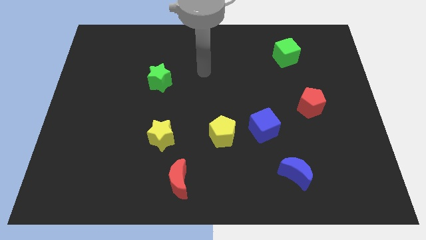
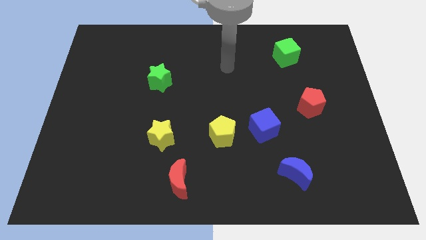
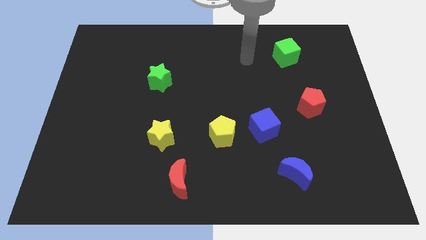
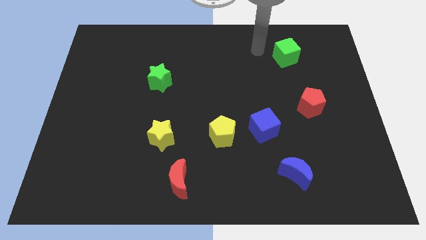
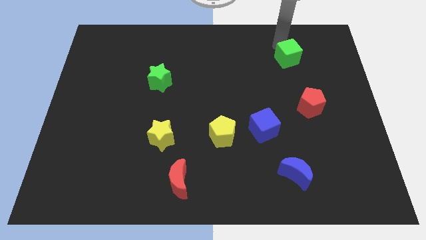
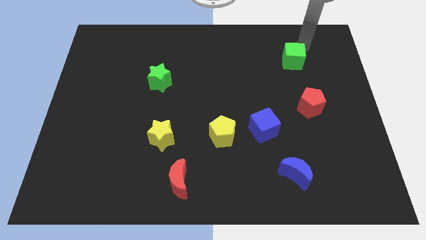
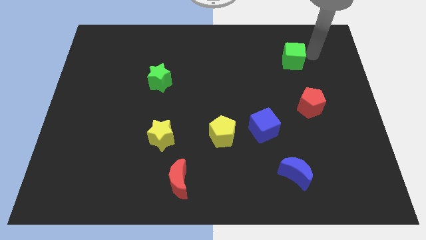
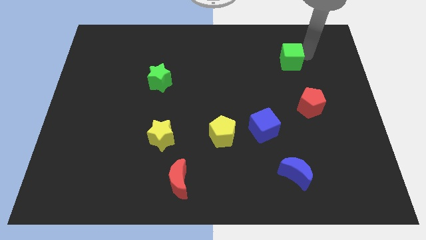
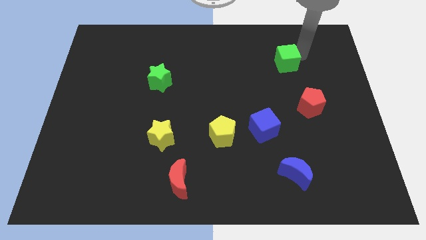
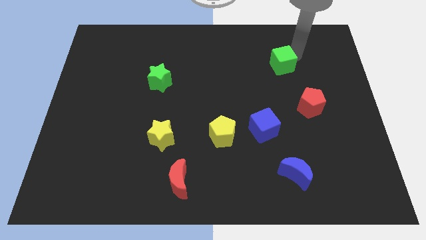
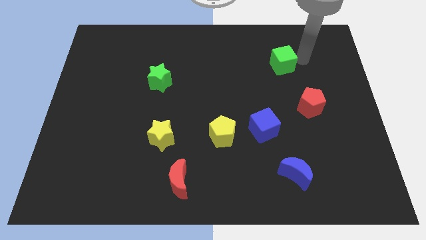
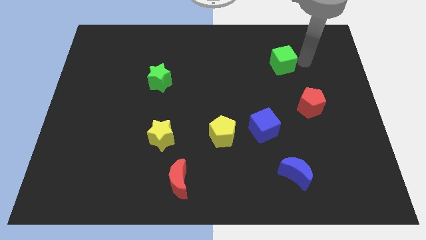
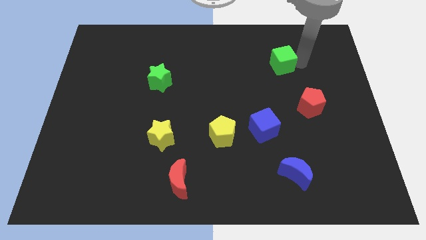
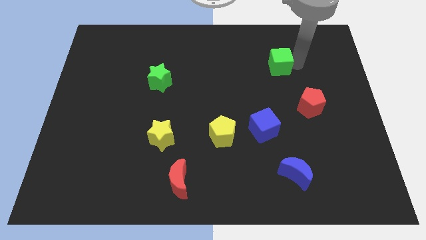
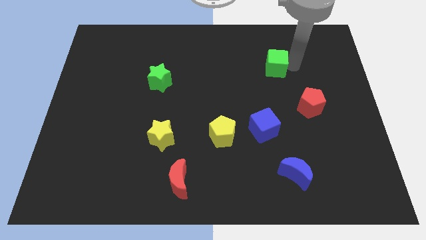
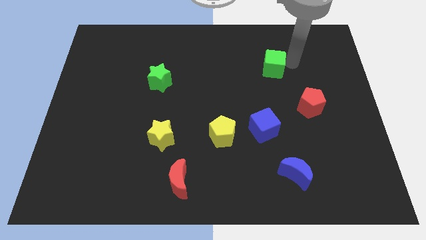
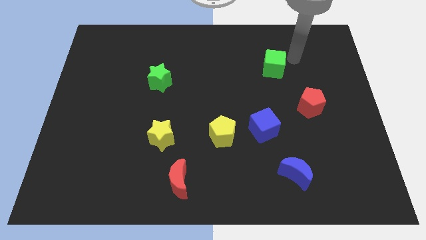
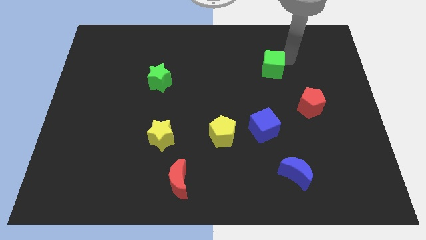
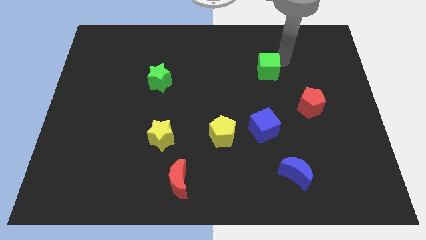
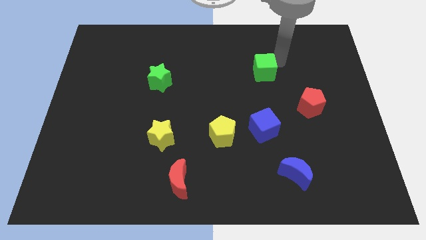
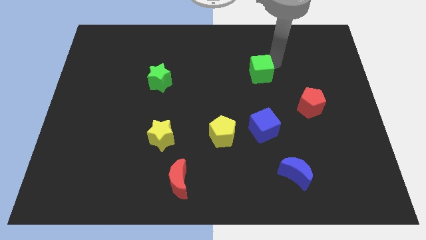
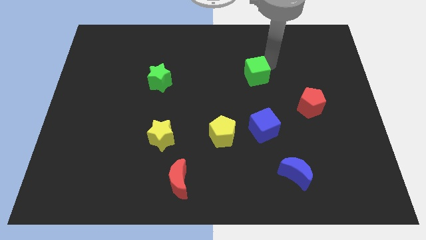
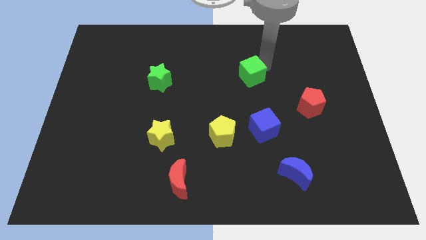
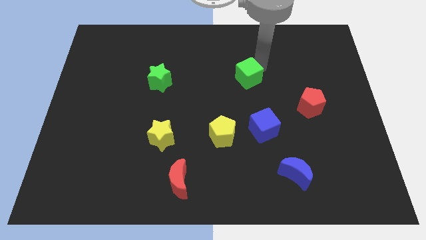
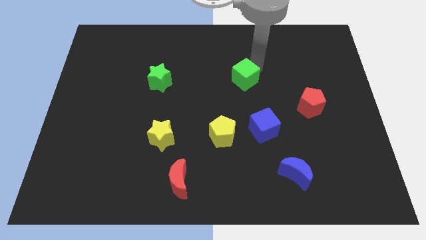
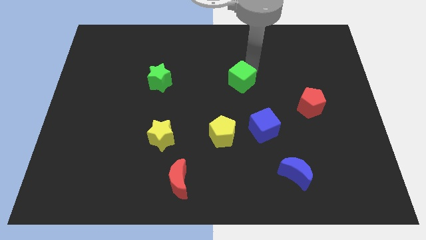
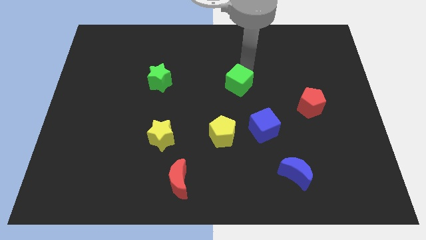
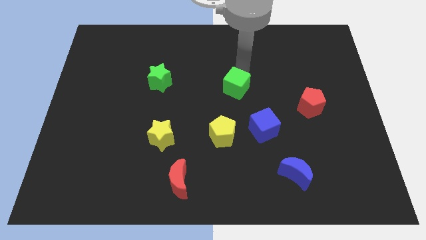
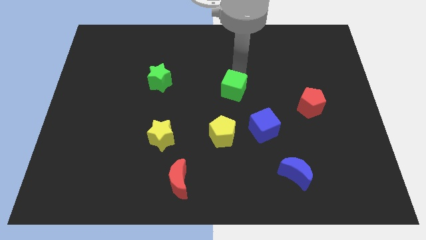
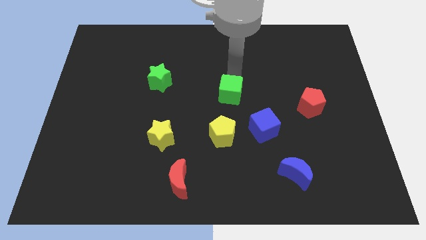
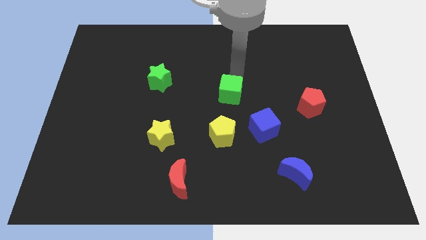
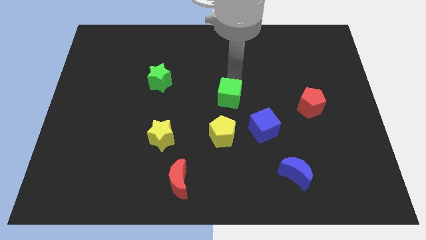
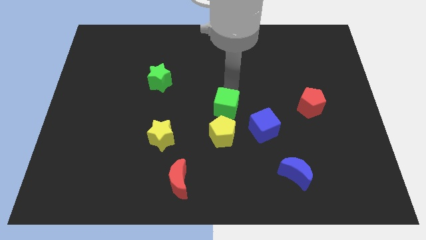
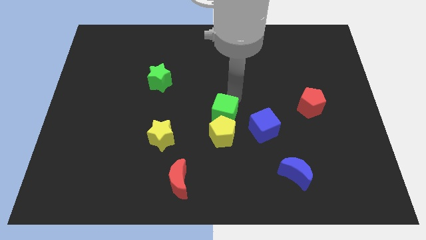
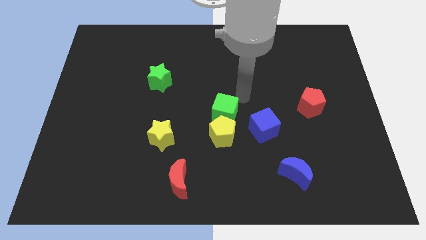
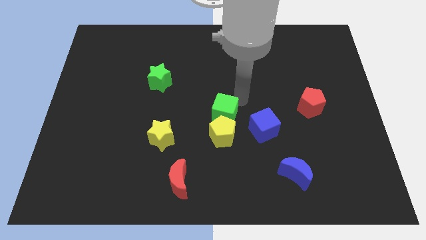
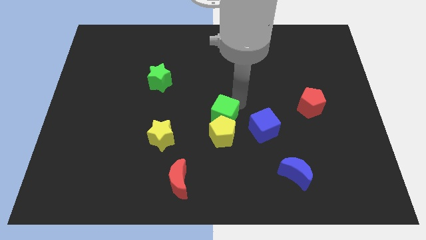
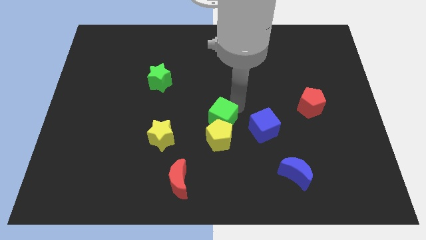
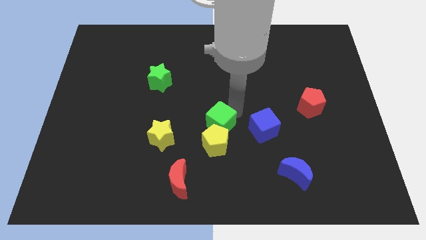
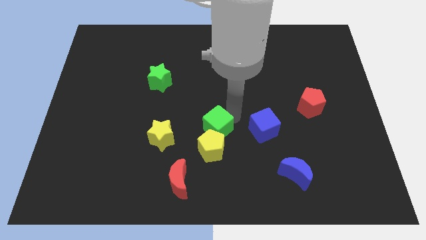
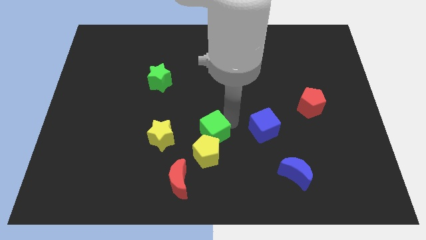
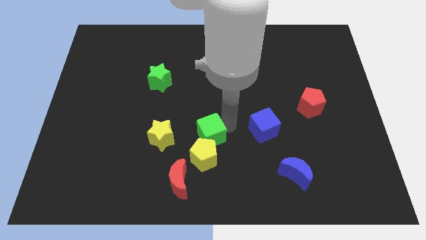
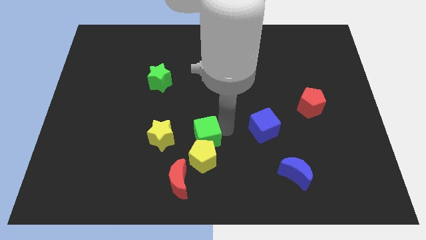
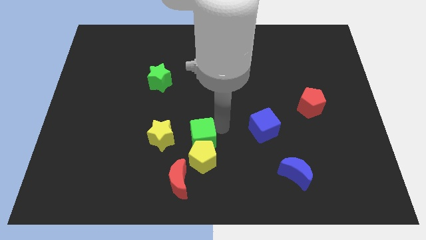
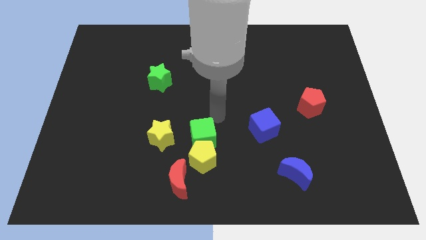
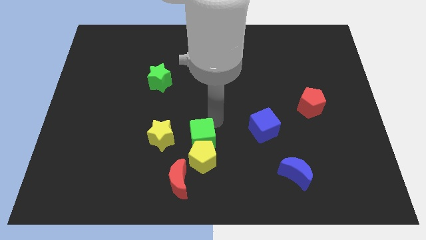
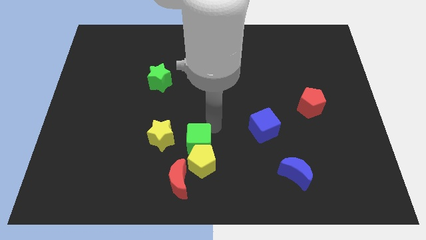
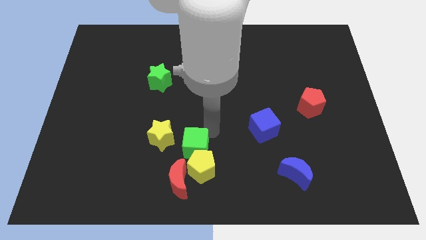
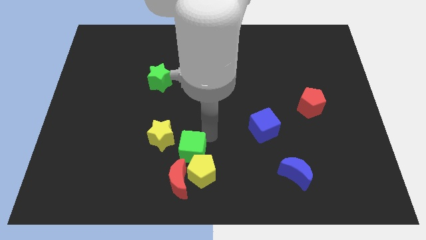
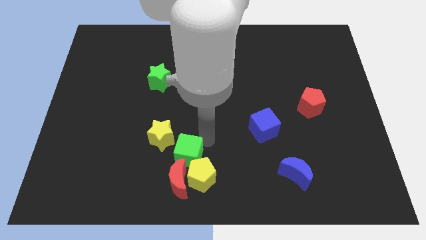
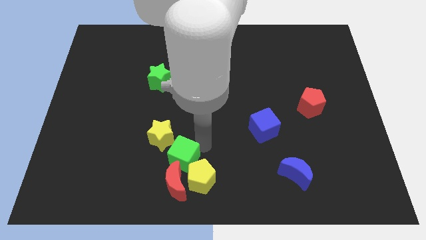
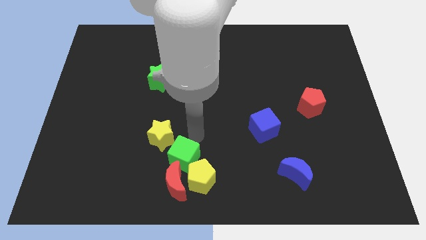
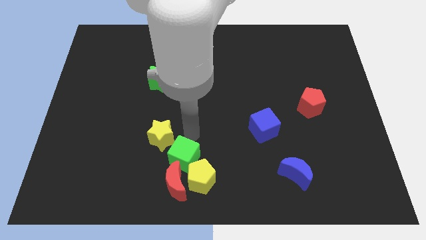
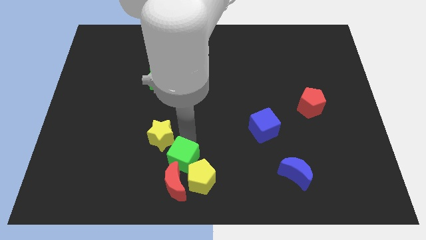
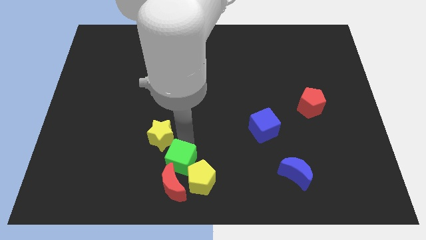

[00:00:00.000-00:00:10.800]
push the green cube next to the red moon

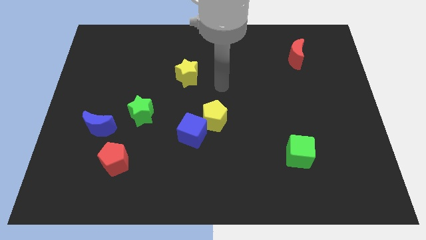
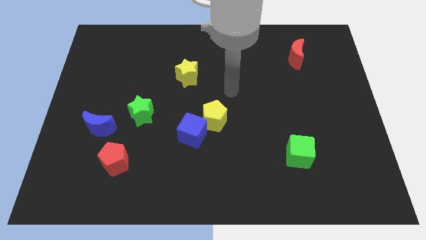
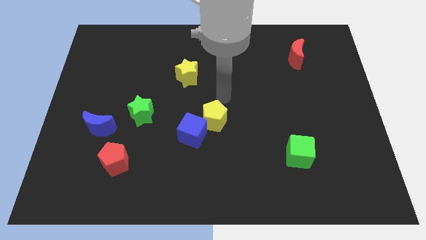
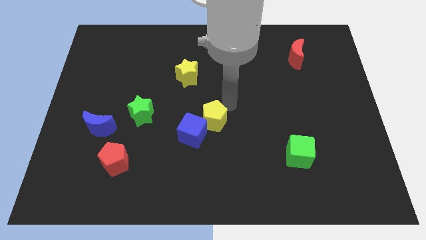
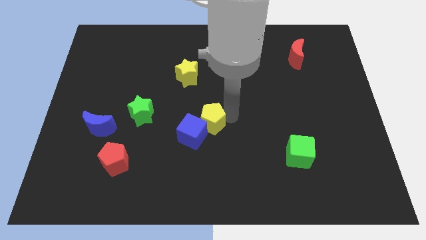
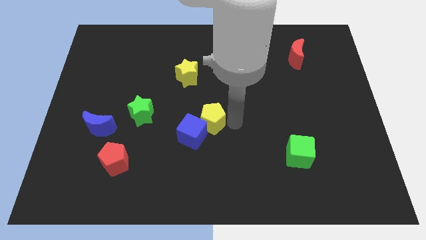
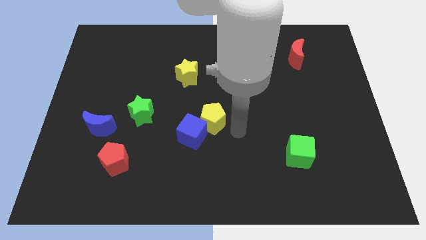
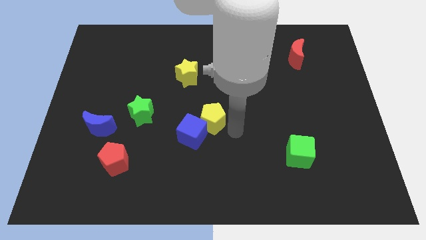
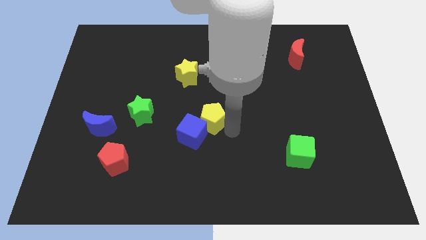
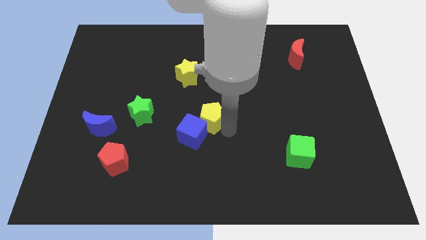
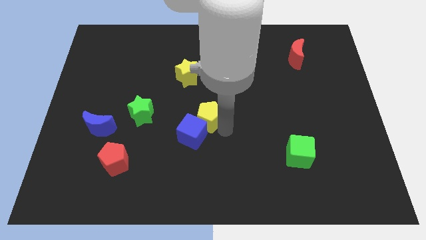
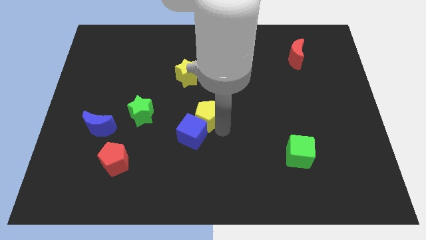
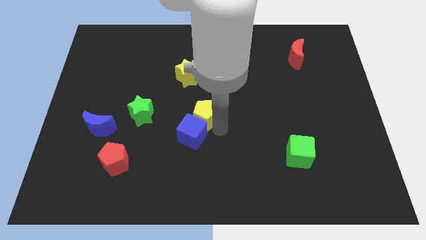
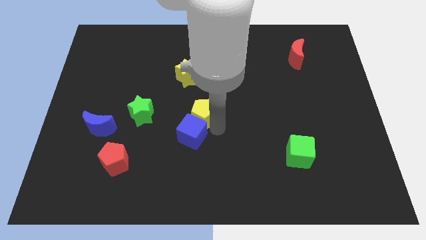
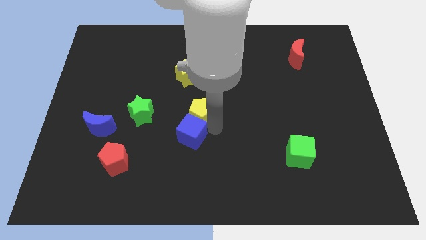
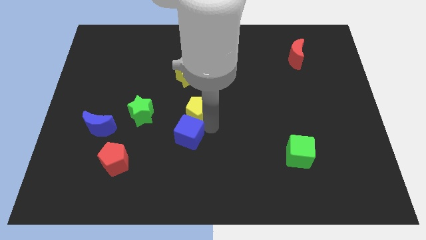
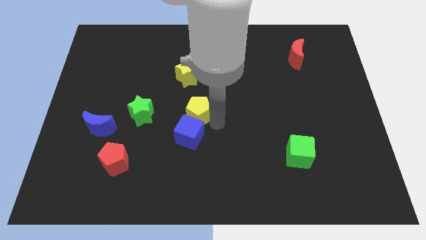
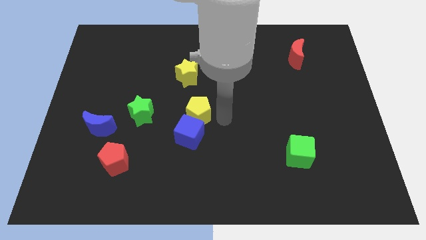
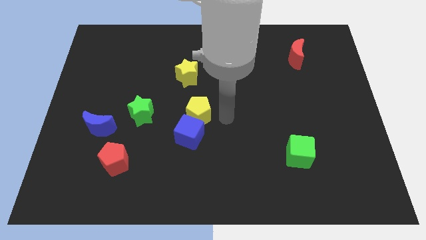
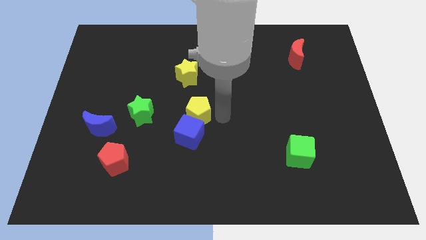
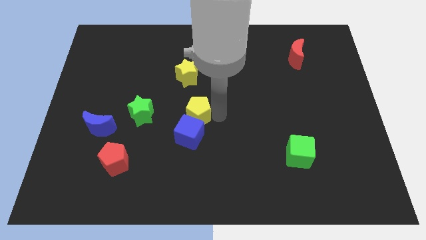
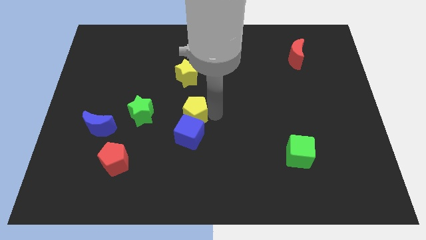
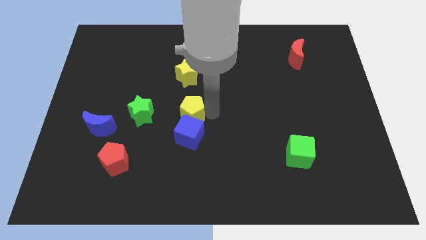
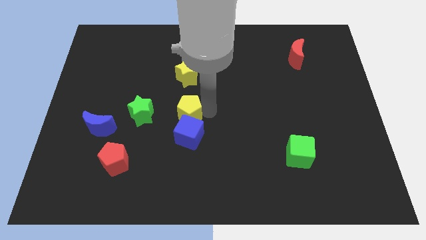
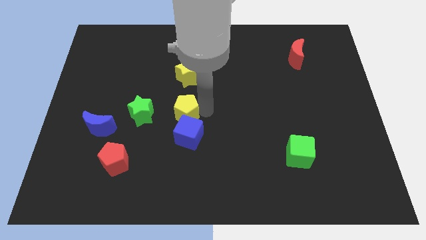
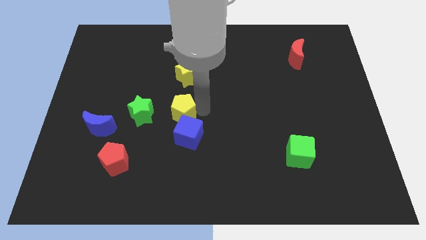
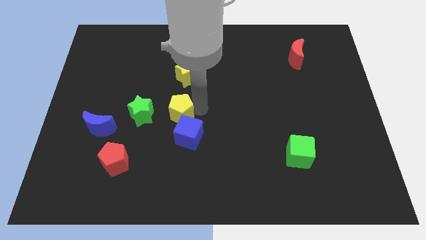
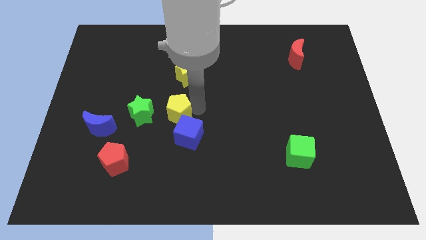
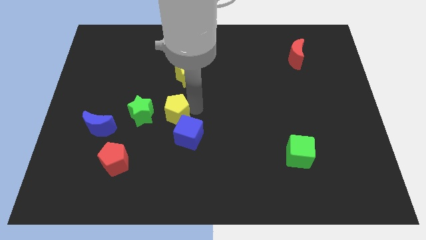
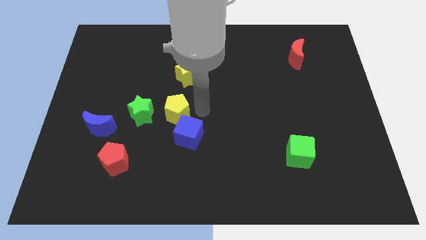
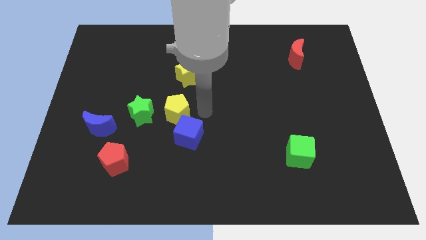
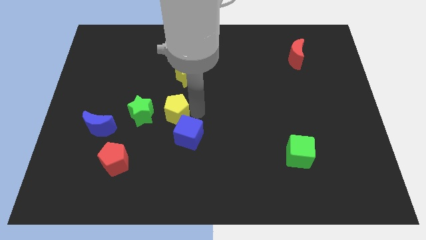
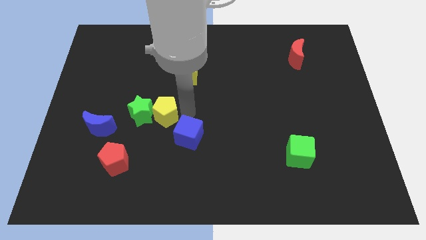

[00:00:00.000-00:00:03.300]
push the yellow pentagon next to the green star
